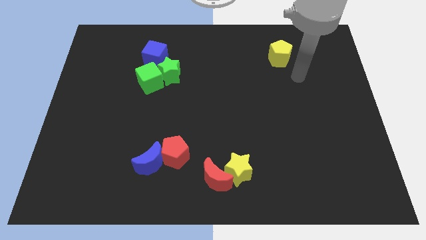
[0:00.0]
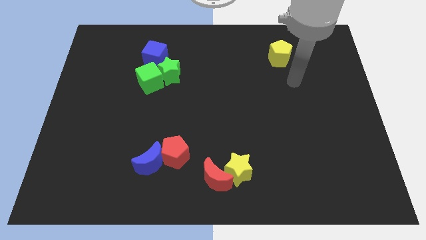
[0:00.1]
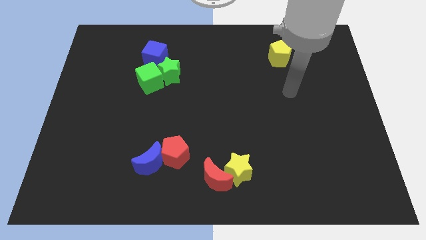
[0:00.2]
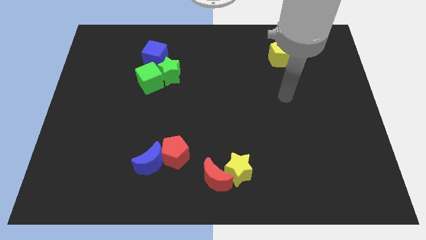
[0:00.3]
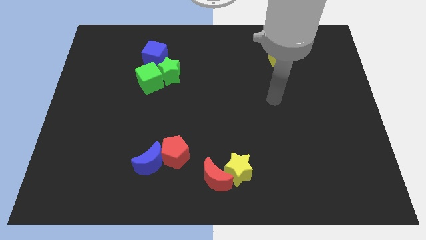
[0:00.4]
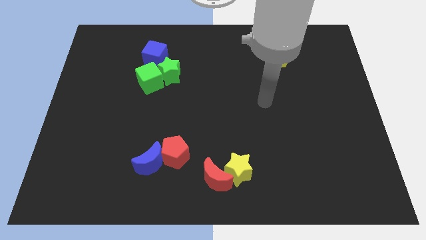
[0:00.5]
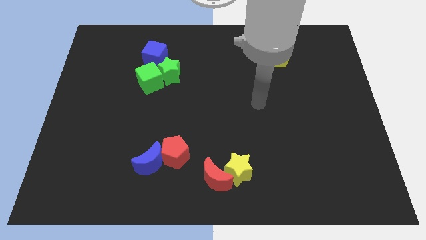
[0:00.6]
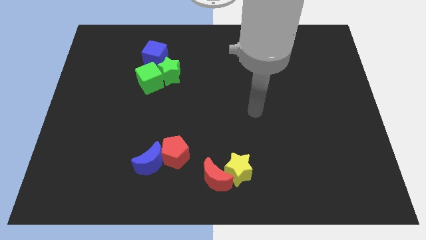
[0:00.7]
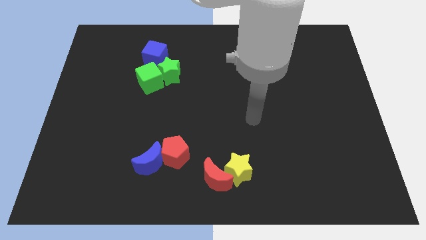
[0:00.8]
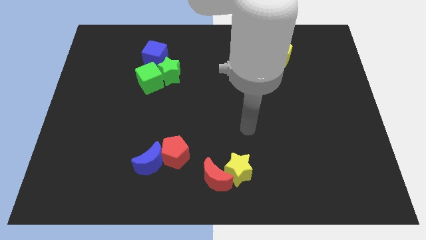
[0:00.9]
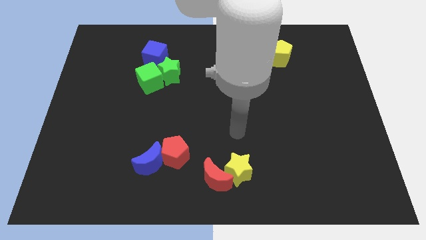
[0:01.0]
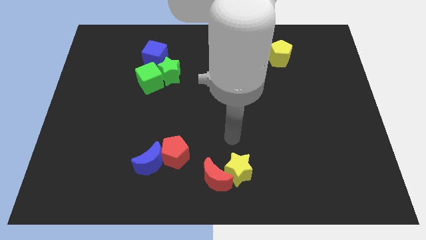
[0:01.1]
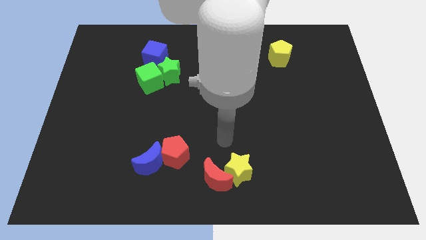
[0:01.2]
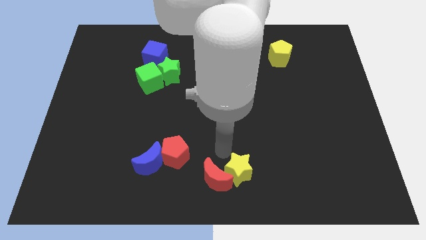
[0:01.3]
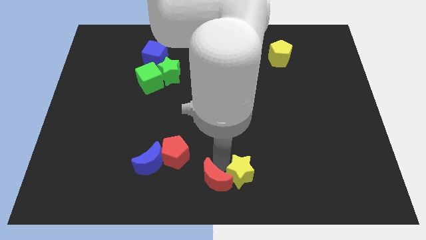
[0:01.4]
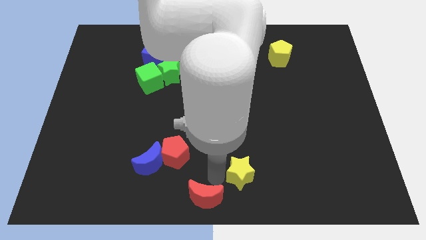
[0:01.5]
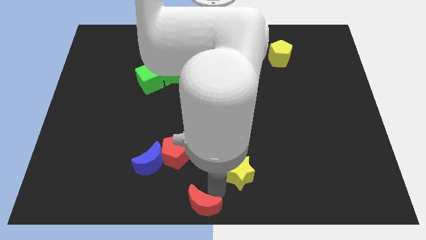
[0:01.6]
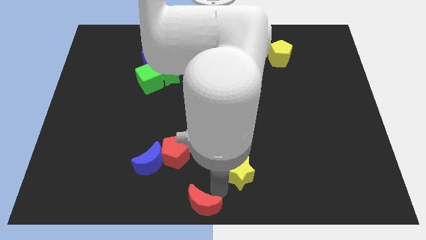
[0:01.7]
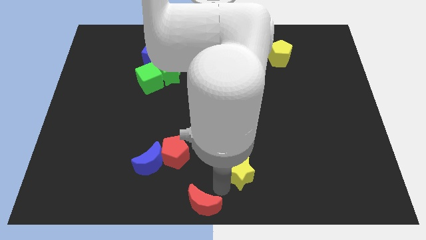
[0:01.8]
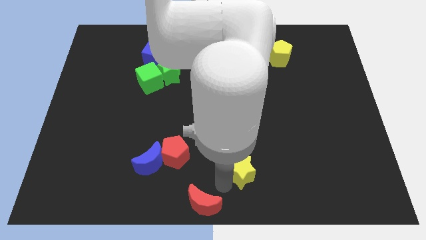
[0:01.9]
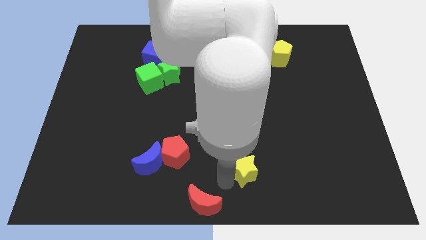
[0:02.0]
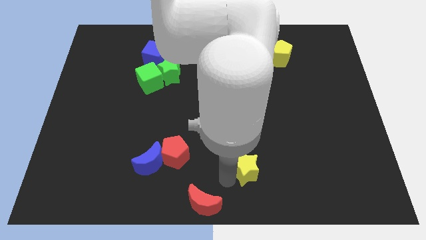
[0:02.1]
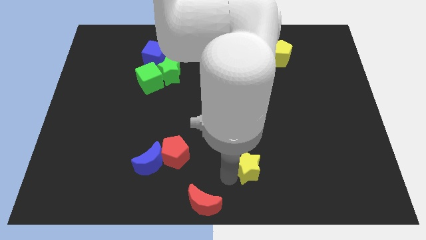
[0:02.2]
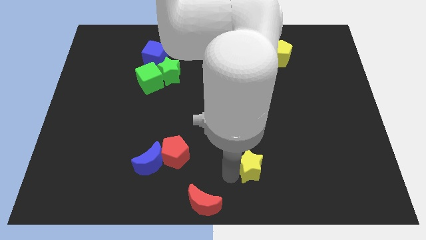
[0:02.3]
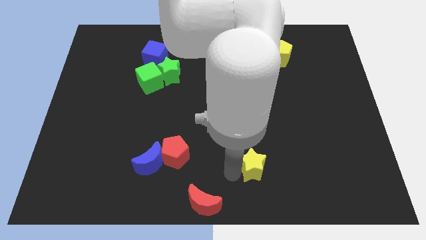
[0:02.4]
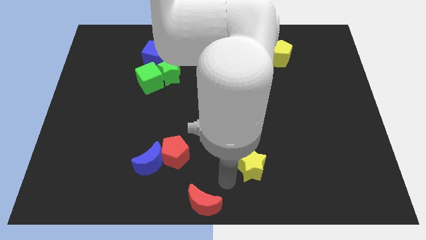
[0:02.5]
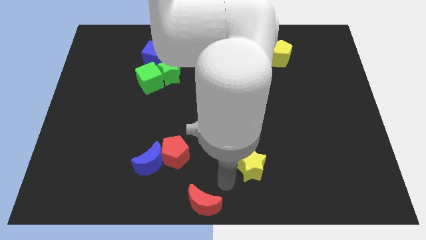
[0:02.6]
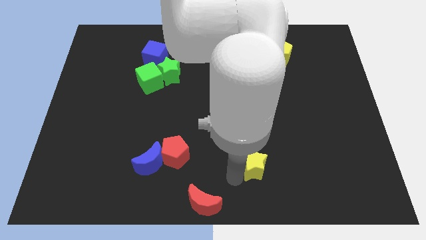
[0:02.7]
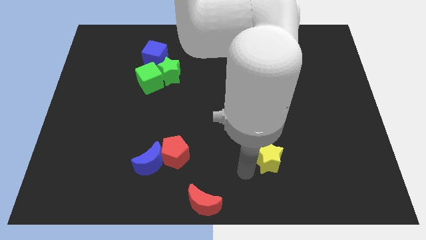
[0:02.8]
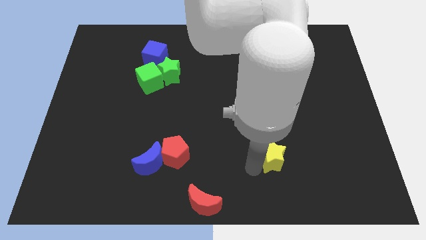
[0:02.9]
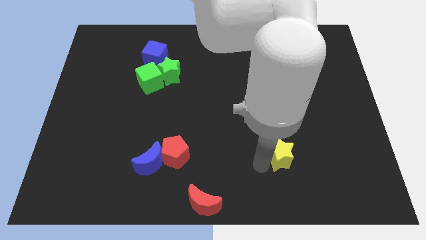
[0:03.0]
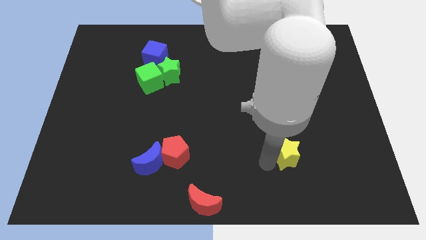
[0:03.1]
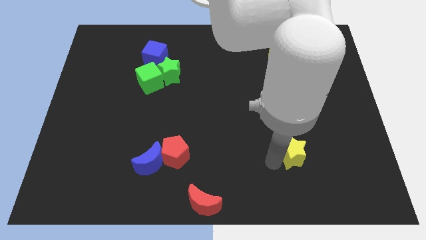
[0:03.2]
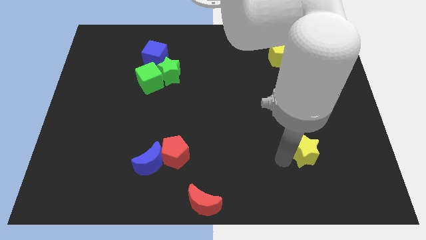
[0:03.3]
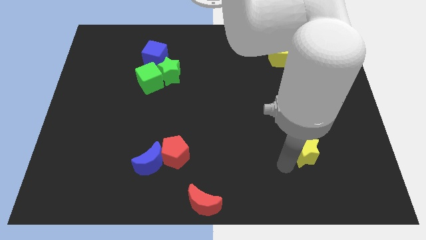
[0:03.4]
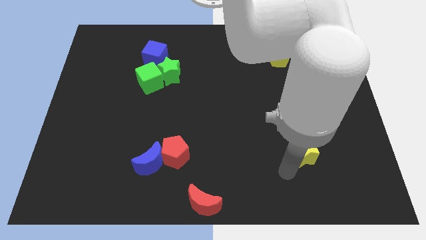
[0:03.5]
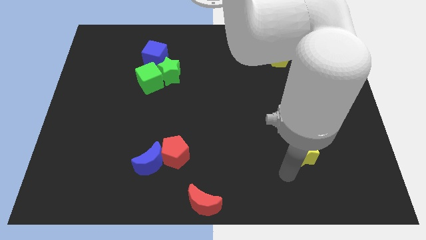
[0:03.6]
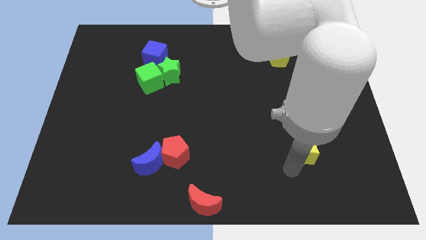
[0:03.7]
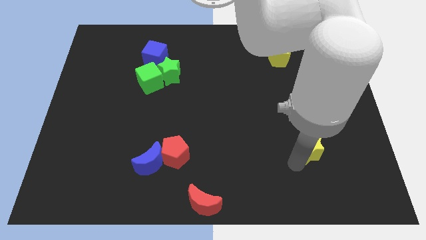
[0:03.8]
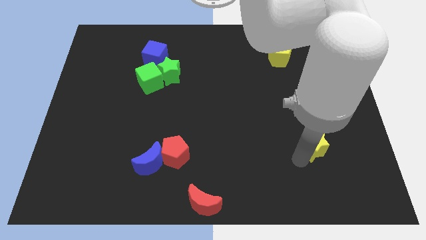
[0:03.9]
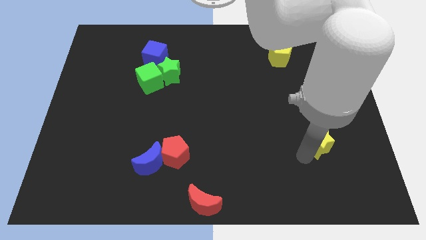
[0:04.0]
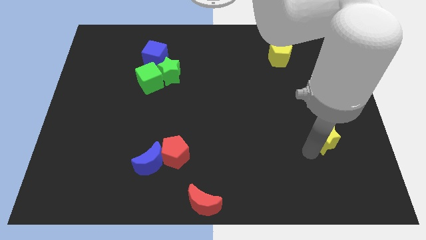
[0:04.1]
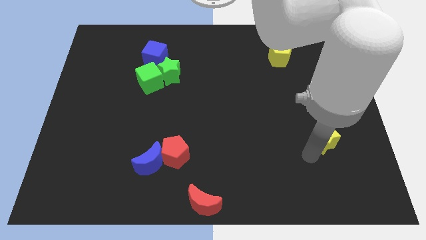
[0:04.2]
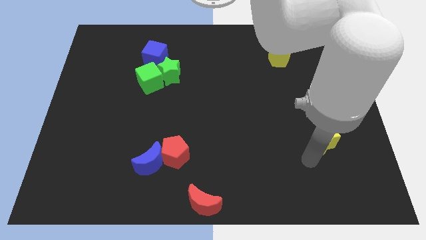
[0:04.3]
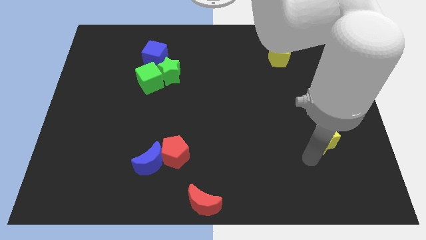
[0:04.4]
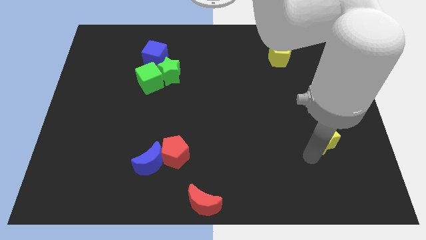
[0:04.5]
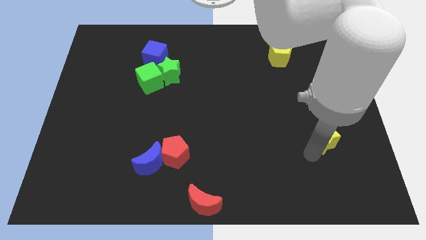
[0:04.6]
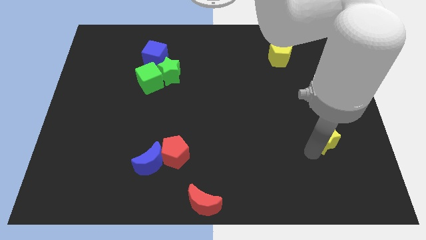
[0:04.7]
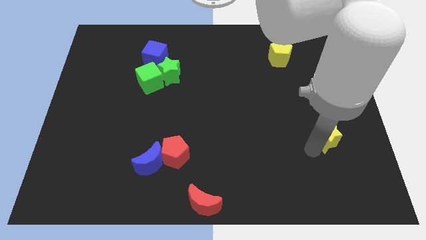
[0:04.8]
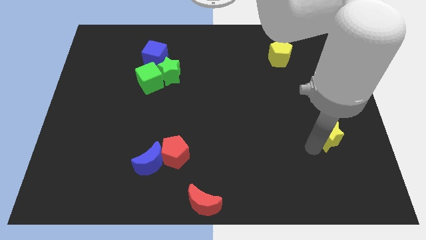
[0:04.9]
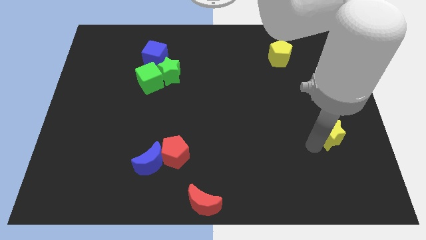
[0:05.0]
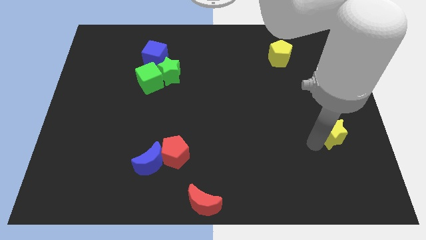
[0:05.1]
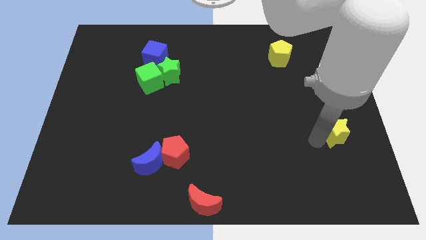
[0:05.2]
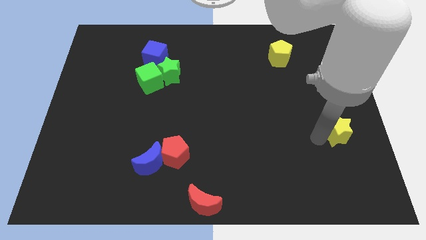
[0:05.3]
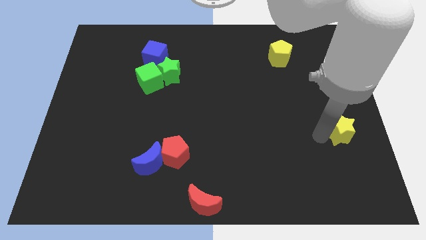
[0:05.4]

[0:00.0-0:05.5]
push the yellow star to the right side

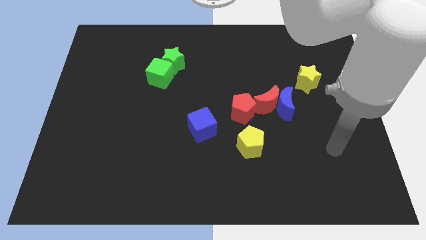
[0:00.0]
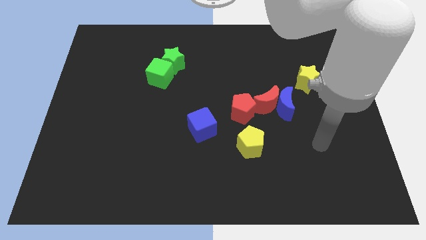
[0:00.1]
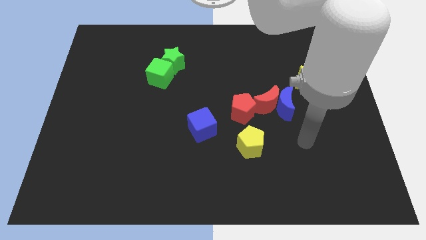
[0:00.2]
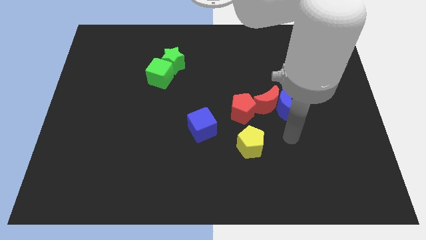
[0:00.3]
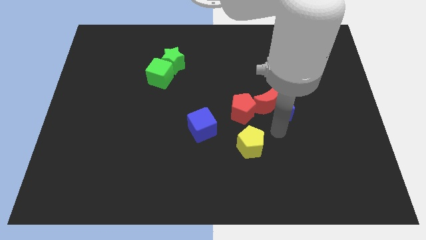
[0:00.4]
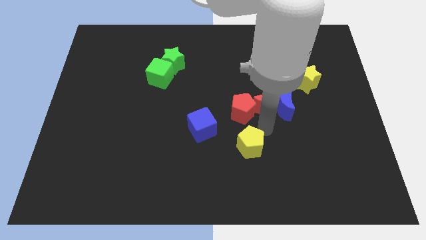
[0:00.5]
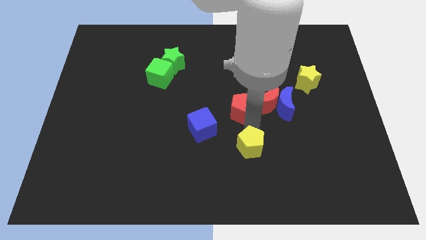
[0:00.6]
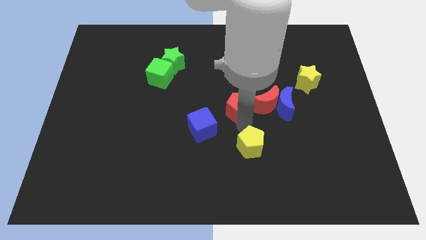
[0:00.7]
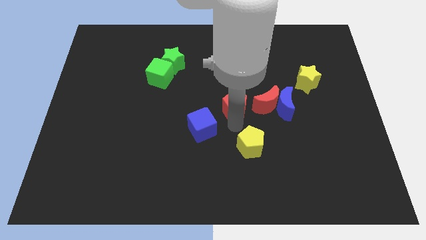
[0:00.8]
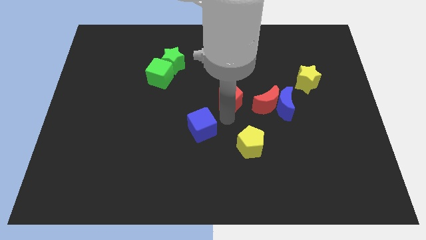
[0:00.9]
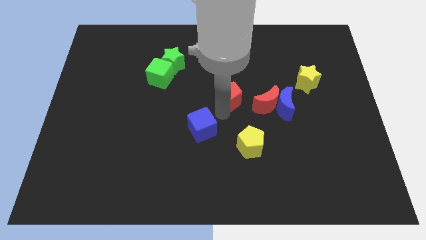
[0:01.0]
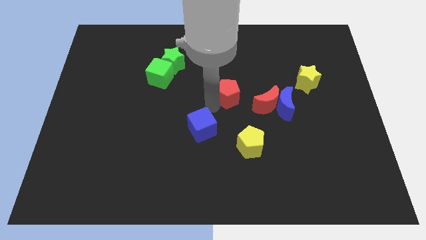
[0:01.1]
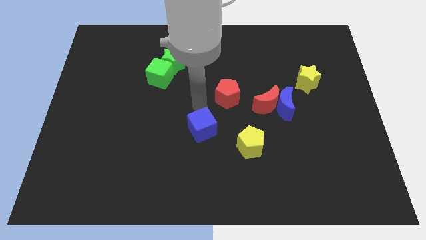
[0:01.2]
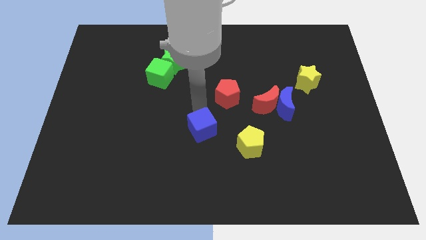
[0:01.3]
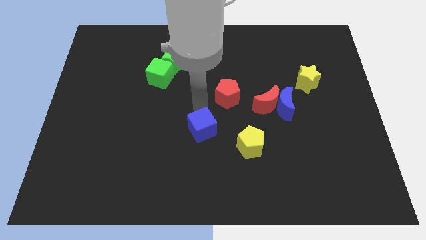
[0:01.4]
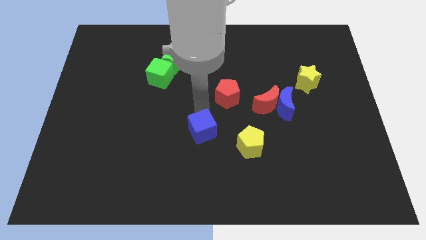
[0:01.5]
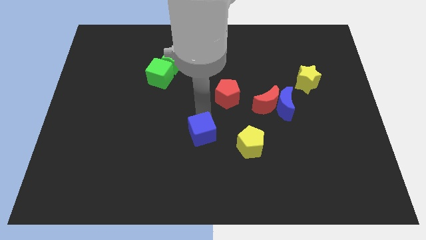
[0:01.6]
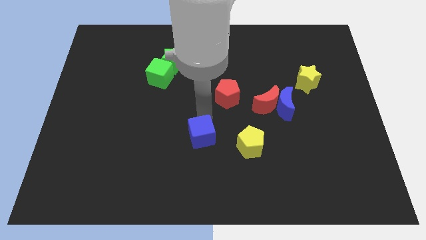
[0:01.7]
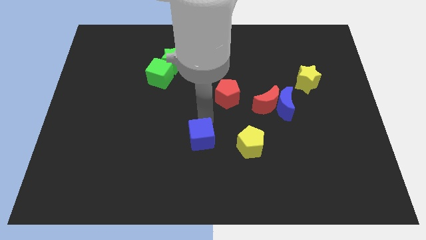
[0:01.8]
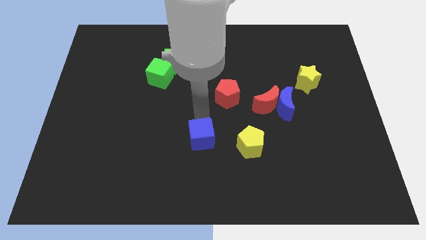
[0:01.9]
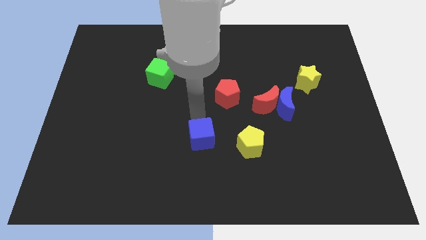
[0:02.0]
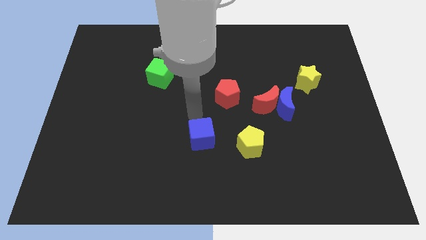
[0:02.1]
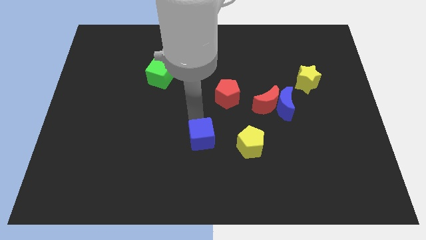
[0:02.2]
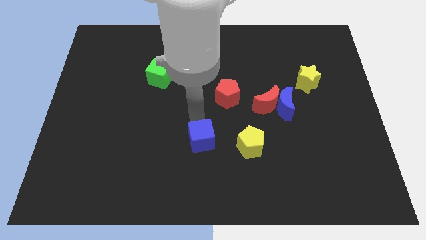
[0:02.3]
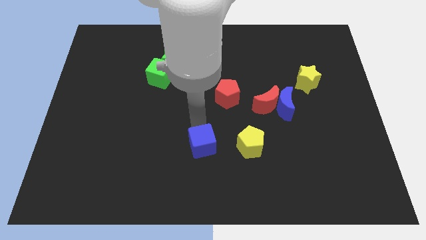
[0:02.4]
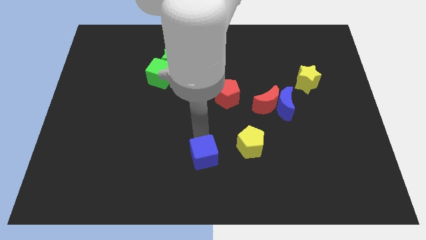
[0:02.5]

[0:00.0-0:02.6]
put the blue cube to the bottom side
